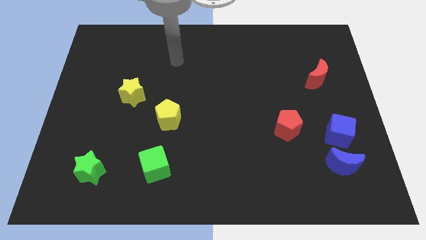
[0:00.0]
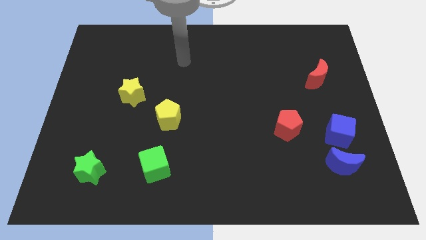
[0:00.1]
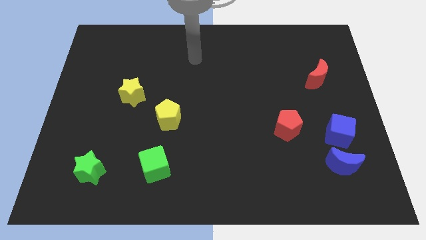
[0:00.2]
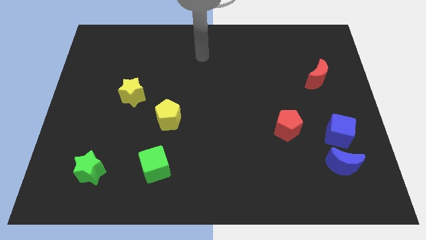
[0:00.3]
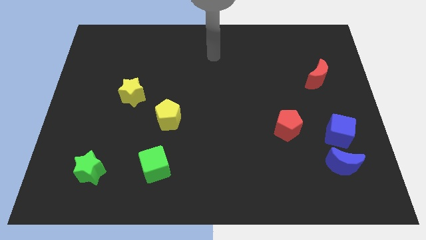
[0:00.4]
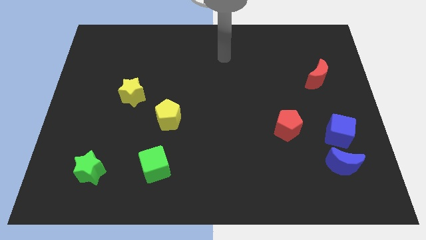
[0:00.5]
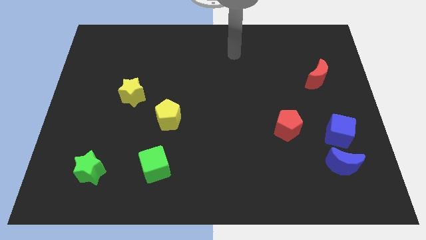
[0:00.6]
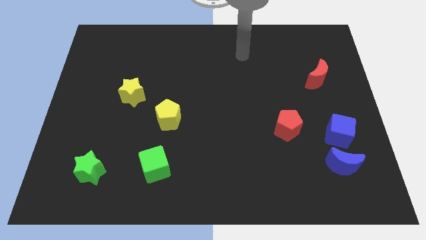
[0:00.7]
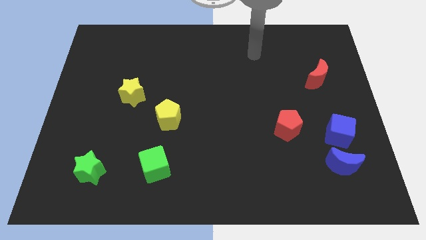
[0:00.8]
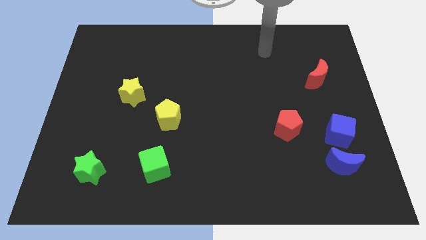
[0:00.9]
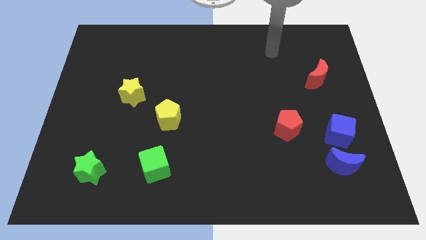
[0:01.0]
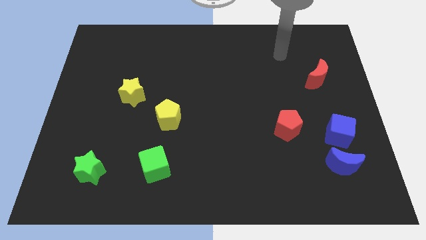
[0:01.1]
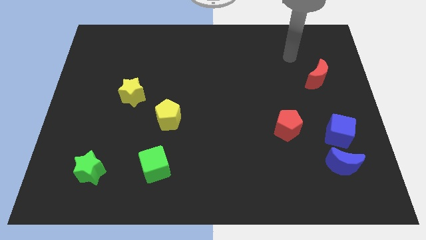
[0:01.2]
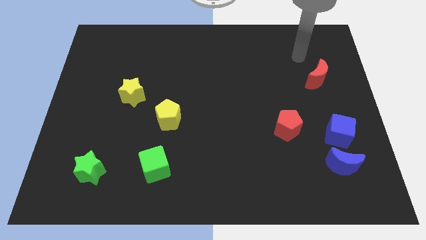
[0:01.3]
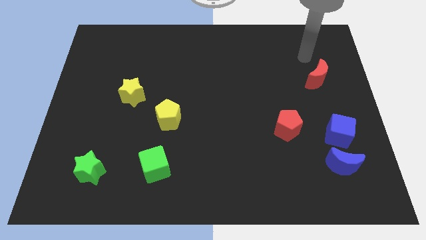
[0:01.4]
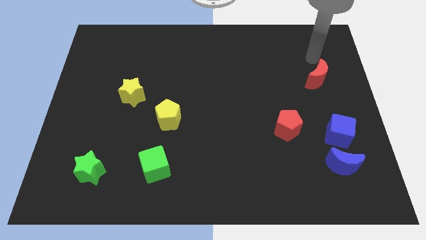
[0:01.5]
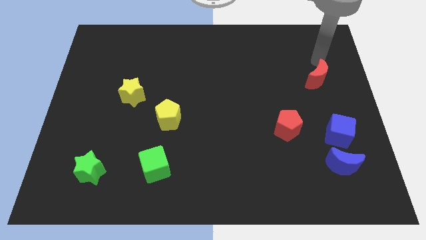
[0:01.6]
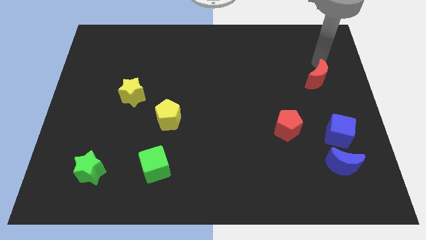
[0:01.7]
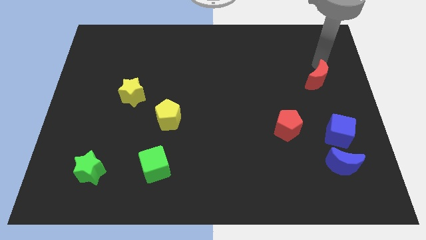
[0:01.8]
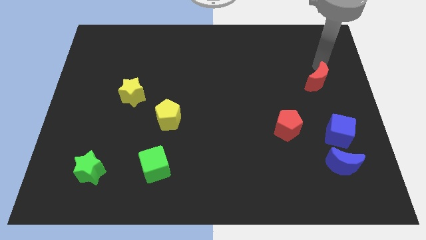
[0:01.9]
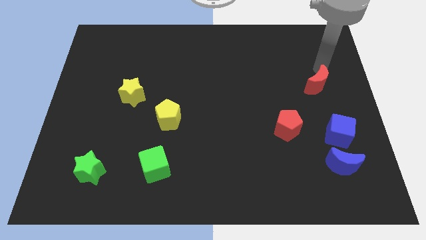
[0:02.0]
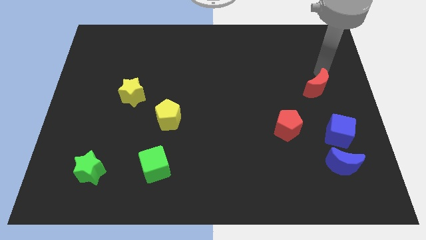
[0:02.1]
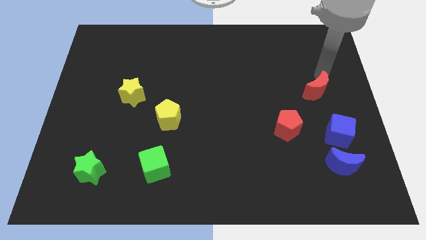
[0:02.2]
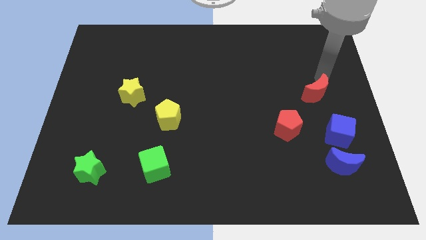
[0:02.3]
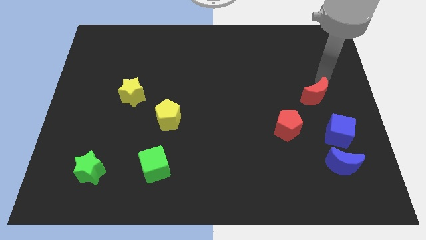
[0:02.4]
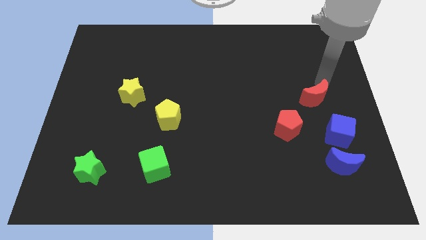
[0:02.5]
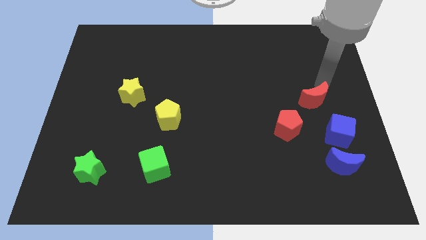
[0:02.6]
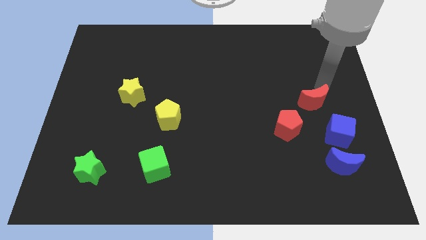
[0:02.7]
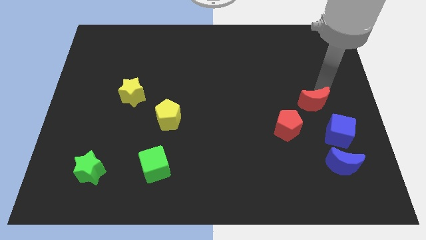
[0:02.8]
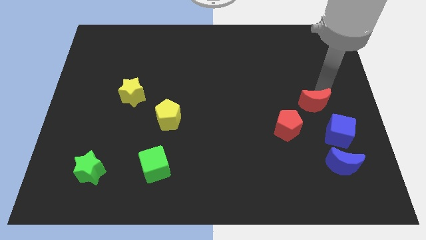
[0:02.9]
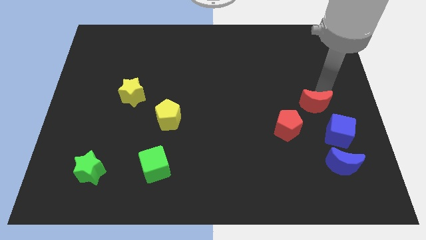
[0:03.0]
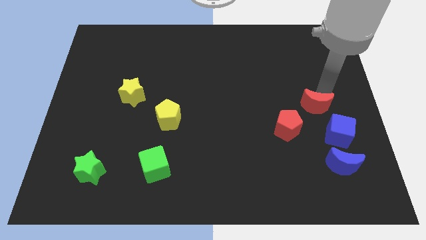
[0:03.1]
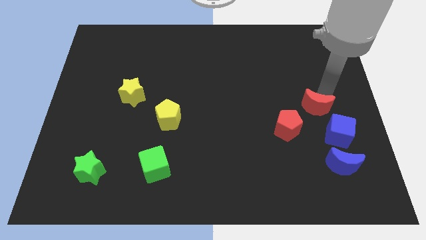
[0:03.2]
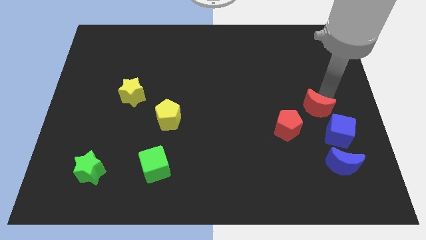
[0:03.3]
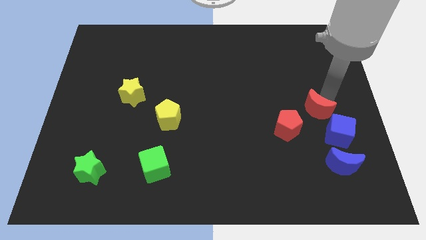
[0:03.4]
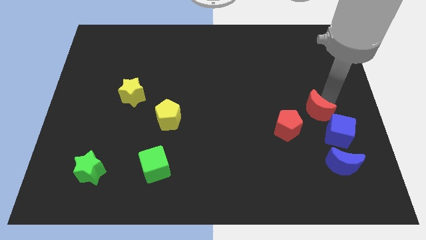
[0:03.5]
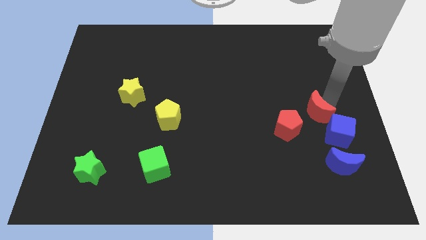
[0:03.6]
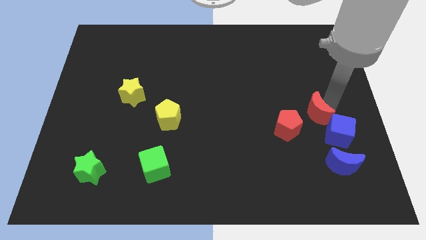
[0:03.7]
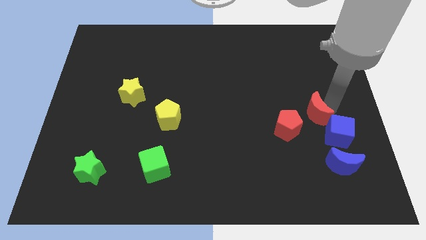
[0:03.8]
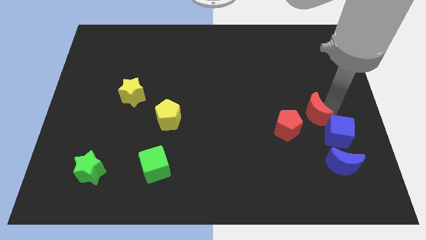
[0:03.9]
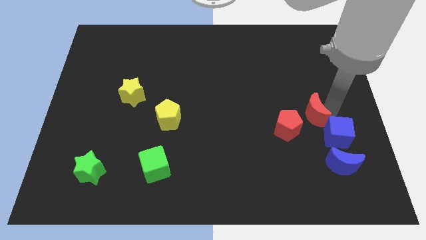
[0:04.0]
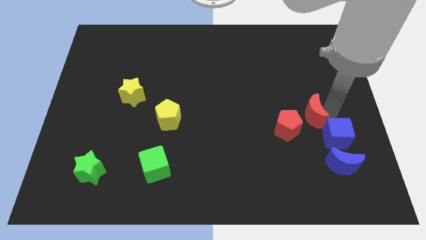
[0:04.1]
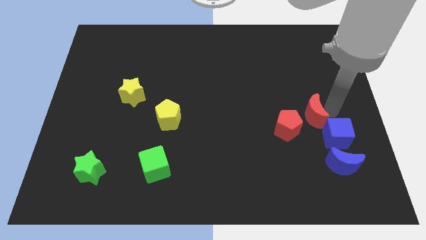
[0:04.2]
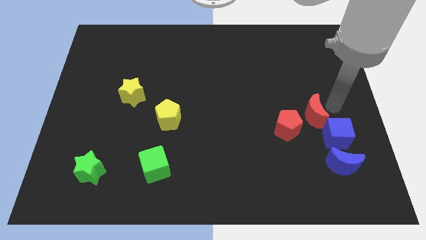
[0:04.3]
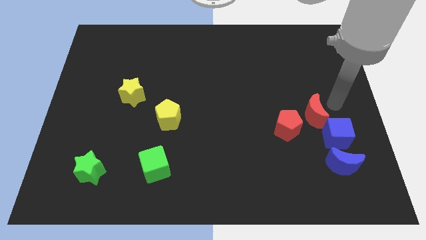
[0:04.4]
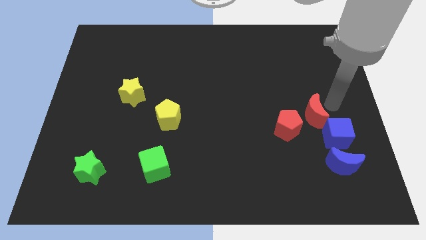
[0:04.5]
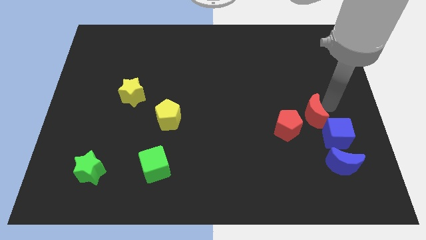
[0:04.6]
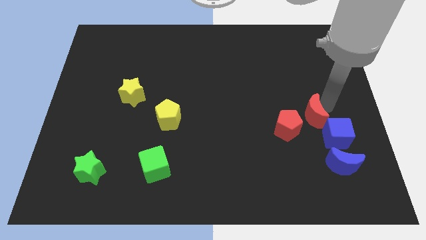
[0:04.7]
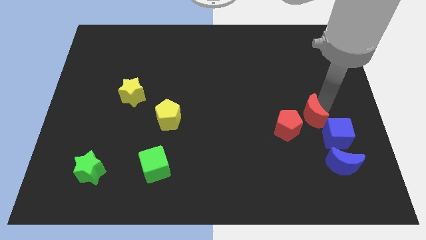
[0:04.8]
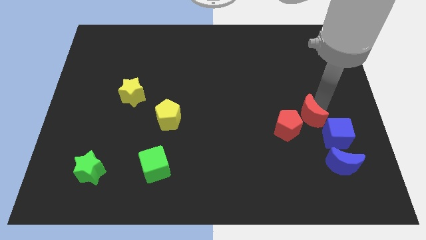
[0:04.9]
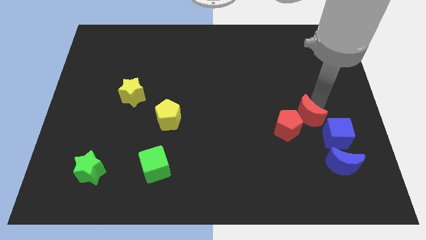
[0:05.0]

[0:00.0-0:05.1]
push the red moon to the red pentagon

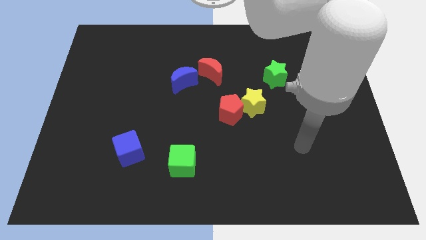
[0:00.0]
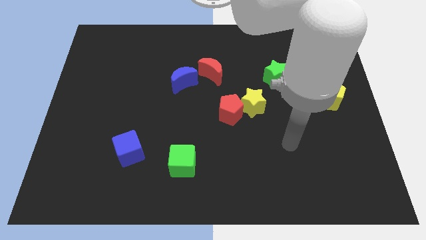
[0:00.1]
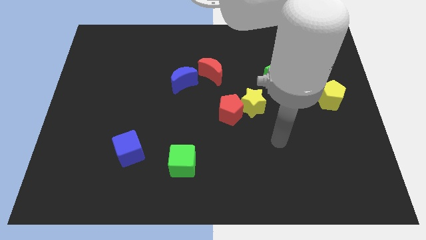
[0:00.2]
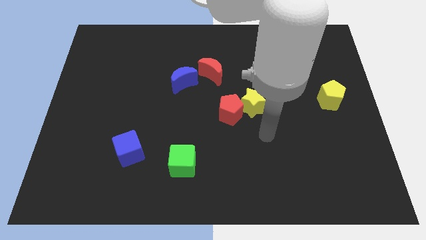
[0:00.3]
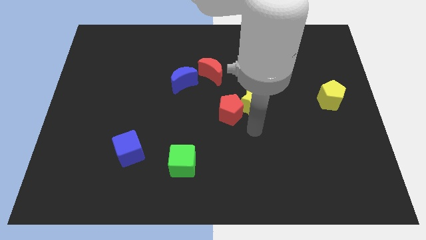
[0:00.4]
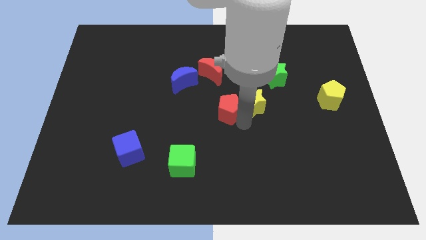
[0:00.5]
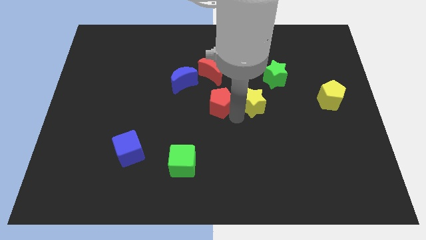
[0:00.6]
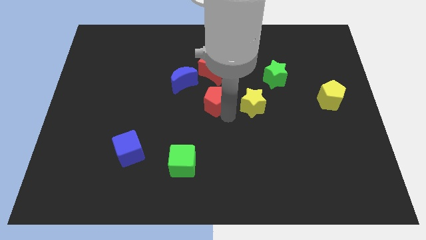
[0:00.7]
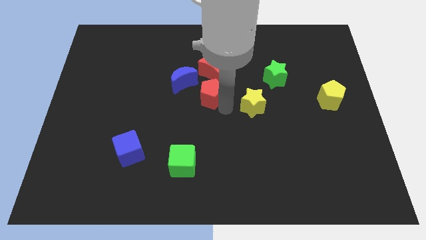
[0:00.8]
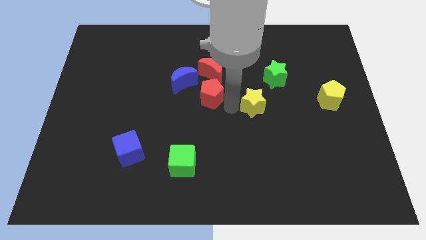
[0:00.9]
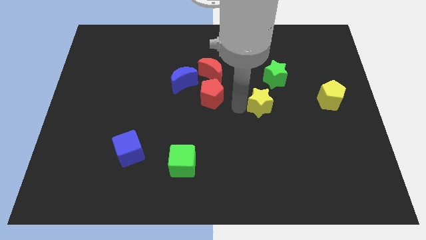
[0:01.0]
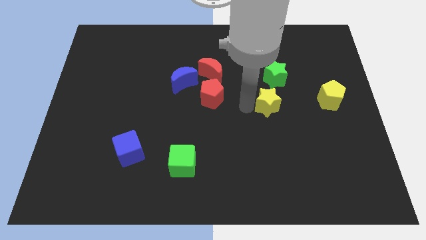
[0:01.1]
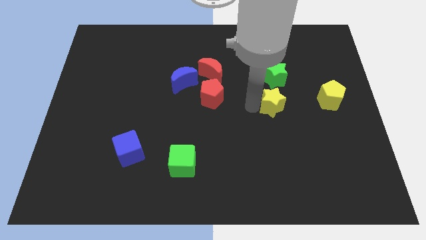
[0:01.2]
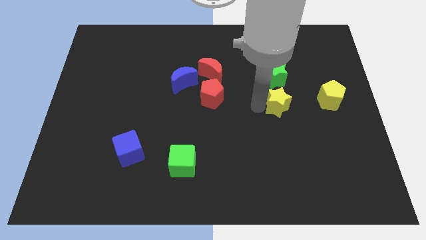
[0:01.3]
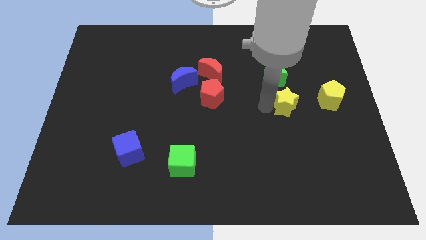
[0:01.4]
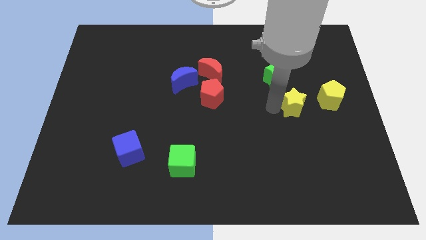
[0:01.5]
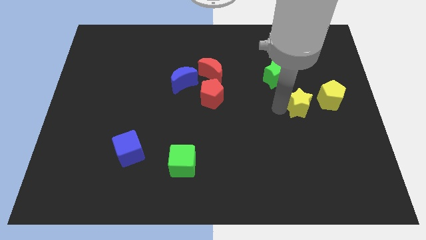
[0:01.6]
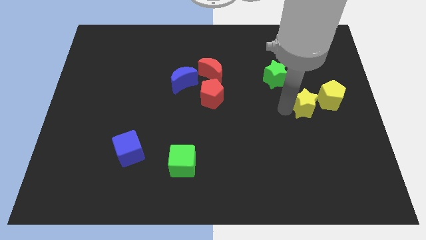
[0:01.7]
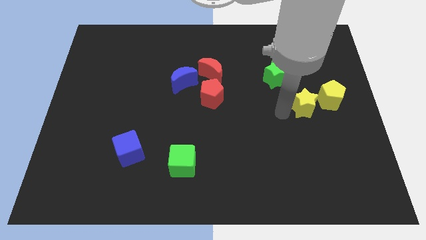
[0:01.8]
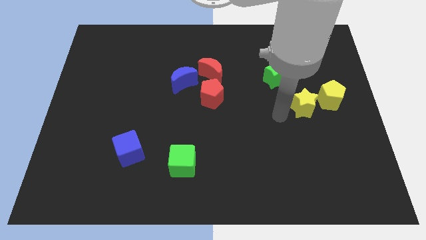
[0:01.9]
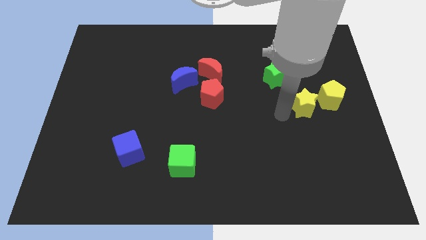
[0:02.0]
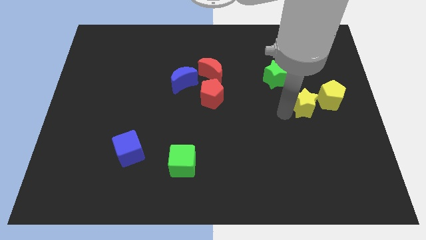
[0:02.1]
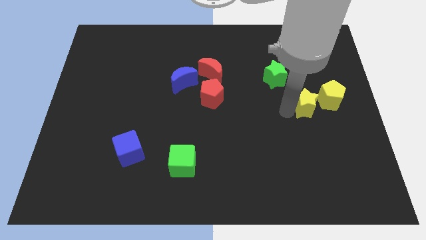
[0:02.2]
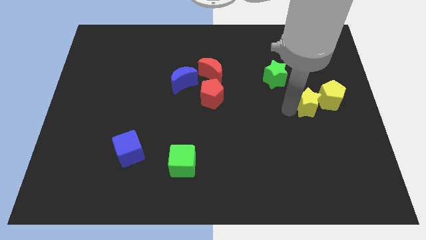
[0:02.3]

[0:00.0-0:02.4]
slide the yellow star close to the yellow pentagon
